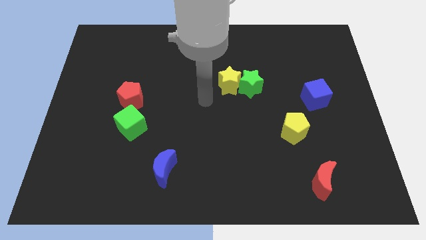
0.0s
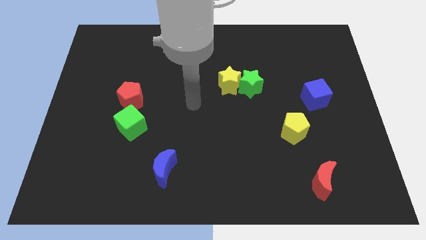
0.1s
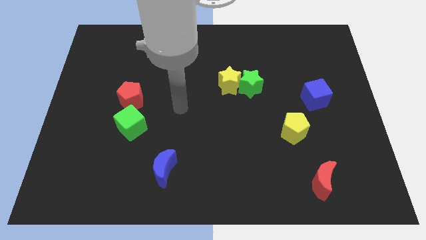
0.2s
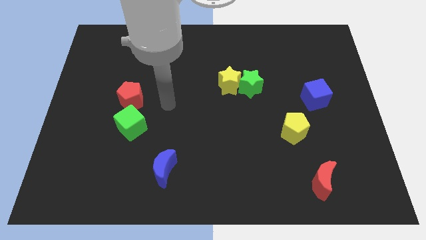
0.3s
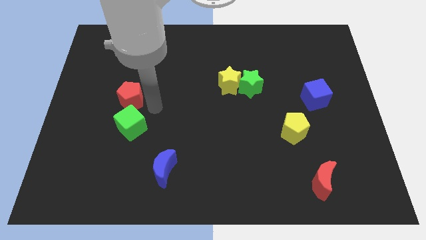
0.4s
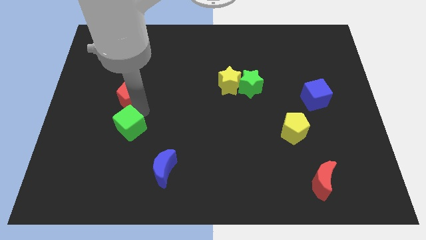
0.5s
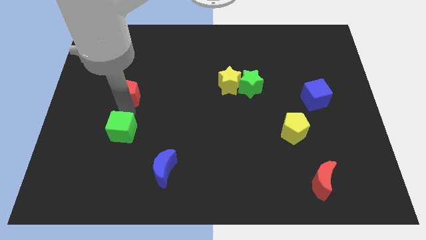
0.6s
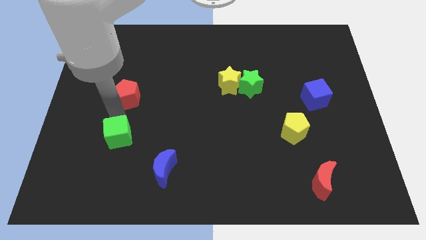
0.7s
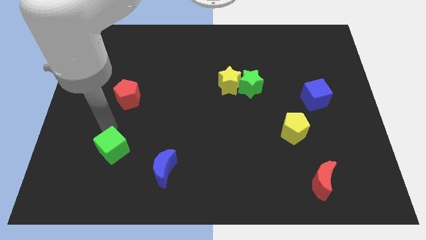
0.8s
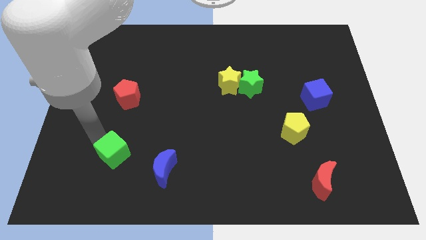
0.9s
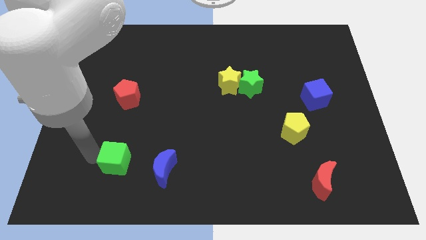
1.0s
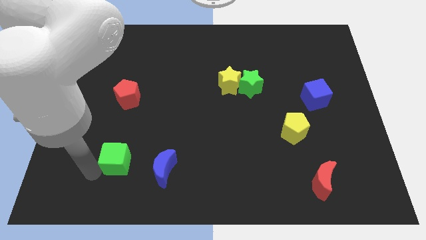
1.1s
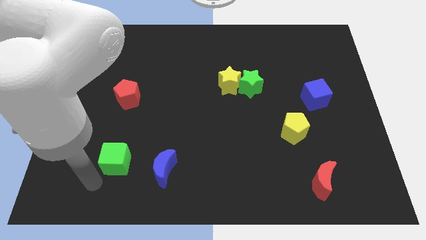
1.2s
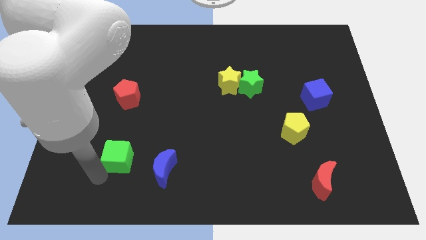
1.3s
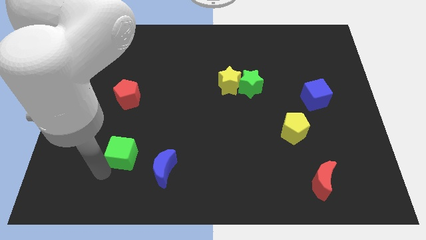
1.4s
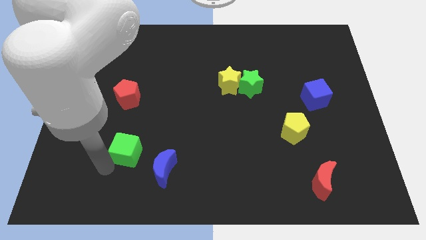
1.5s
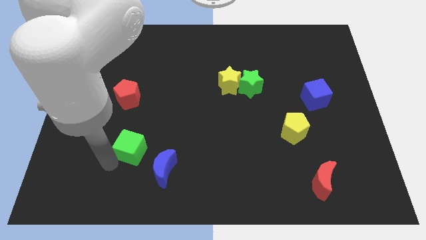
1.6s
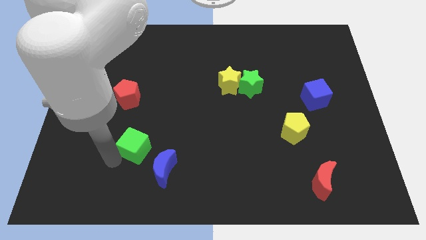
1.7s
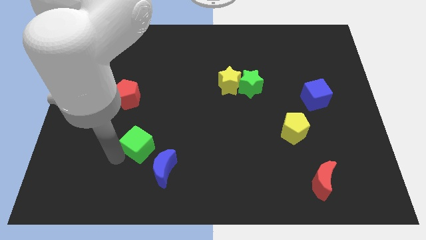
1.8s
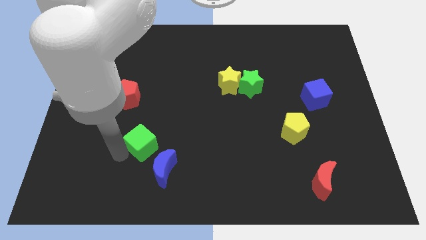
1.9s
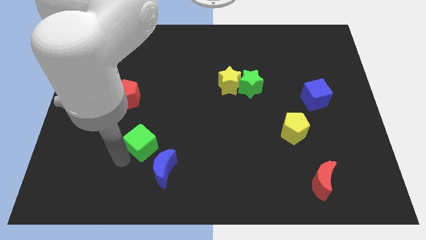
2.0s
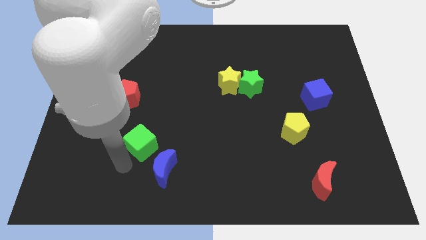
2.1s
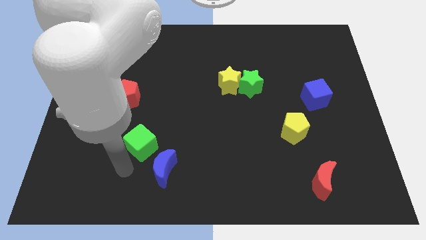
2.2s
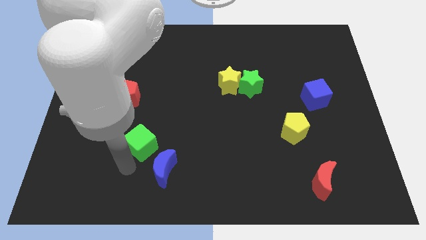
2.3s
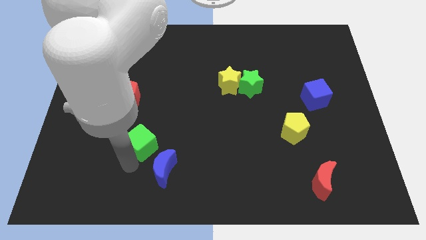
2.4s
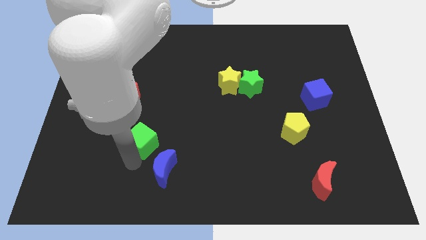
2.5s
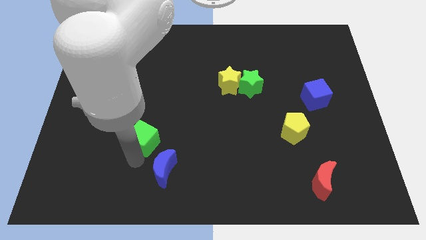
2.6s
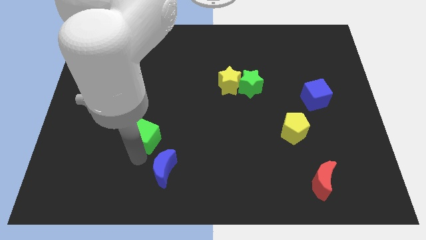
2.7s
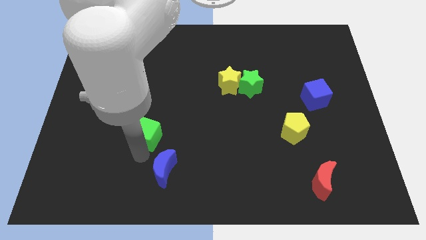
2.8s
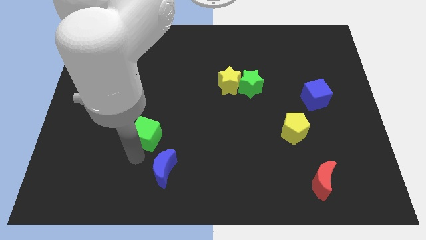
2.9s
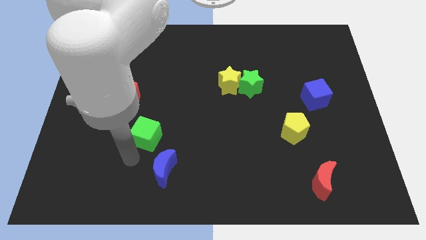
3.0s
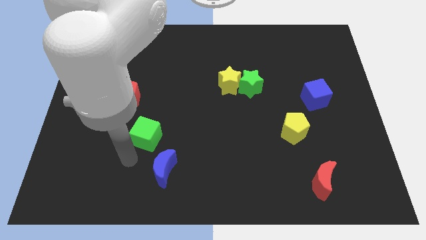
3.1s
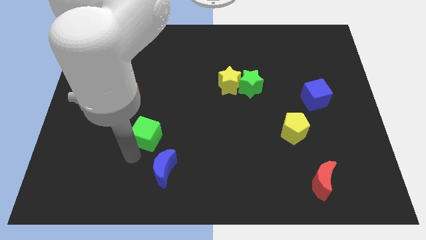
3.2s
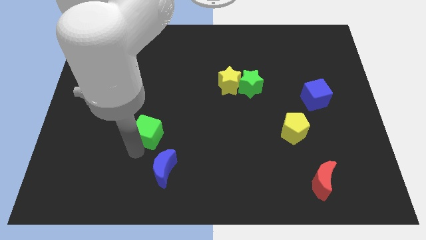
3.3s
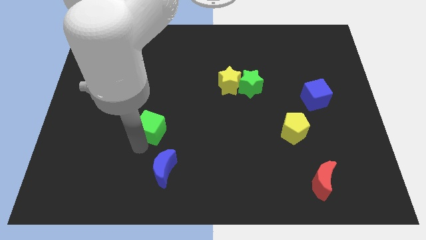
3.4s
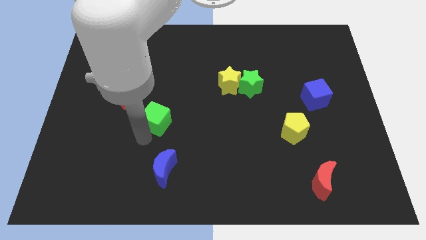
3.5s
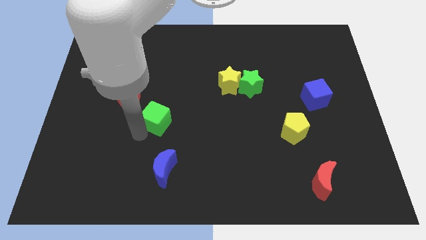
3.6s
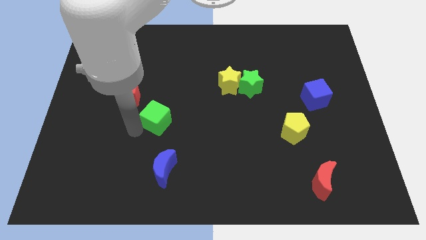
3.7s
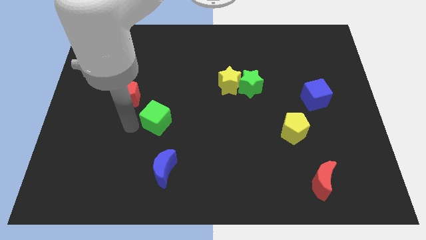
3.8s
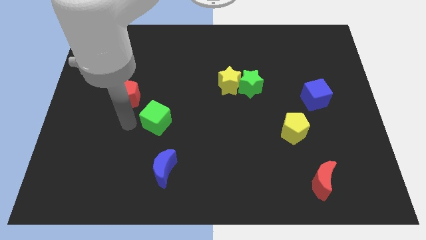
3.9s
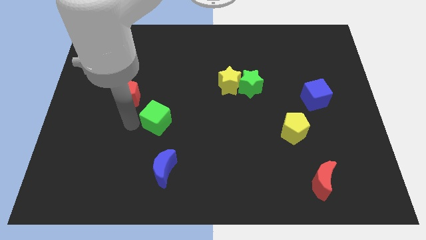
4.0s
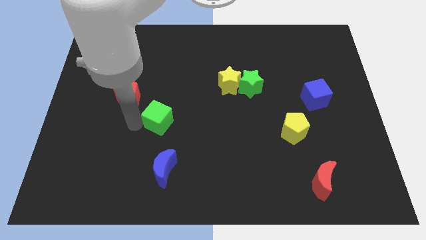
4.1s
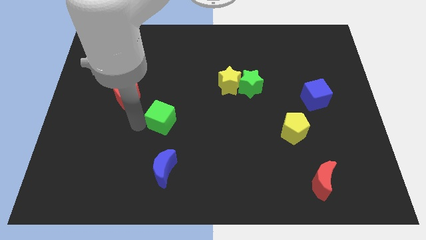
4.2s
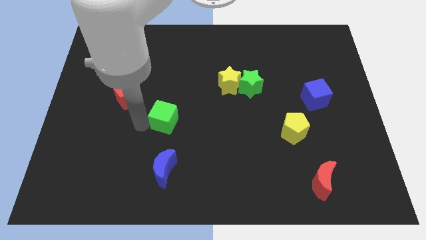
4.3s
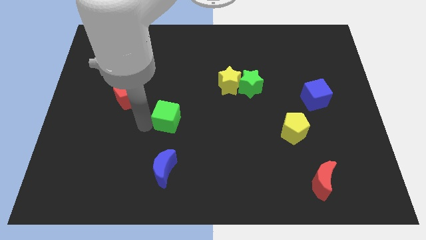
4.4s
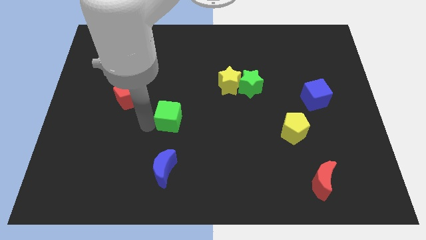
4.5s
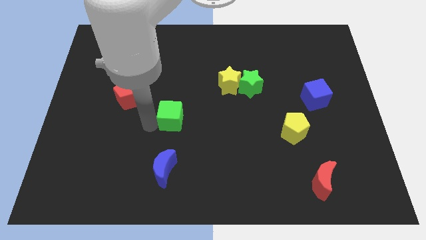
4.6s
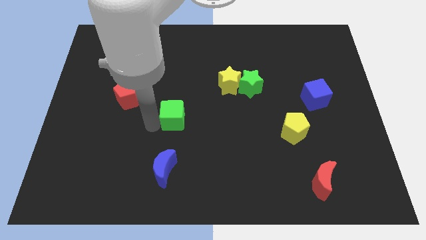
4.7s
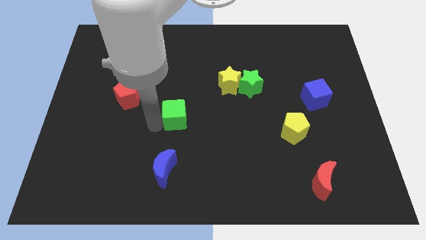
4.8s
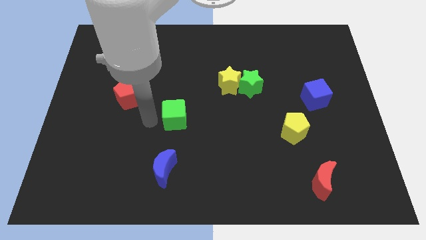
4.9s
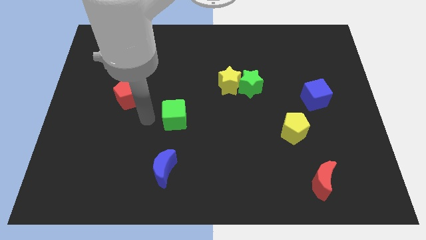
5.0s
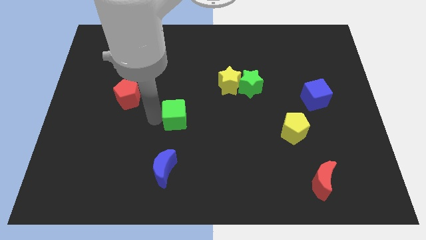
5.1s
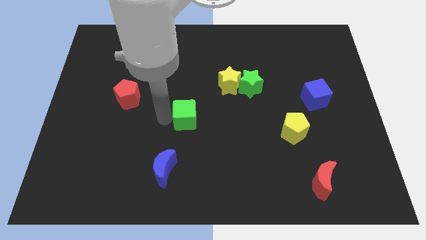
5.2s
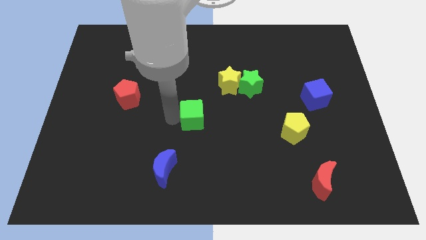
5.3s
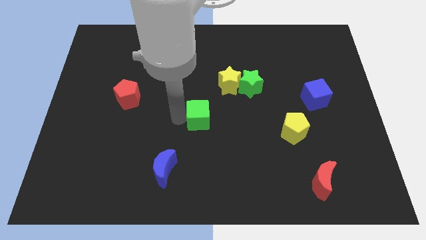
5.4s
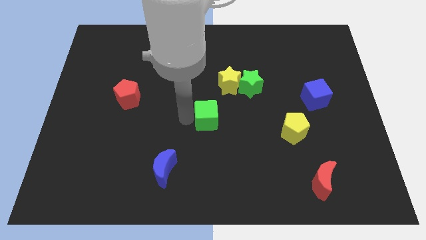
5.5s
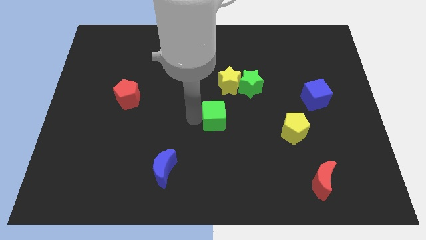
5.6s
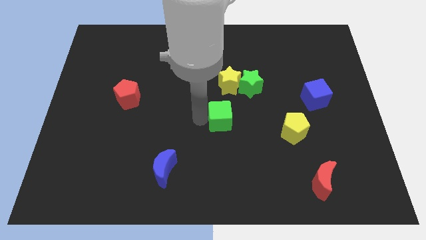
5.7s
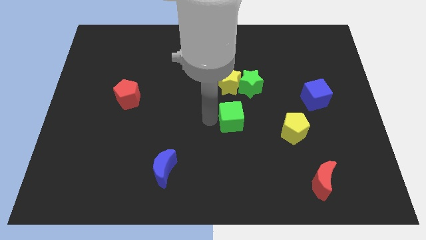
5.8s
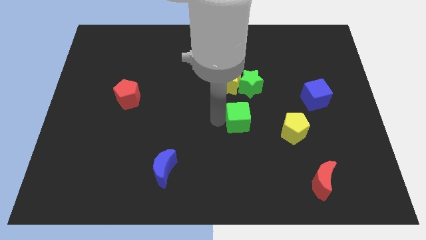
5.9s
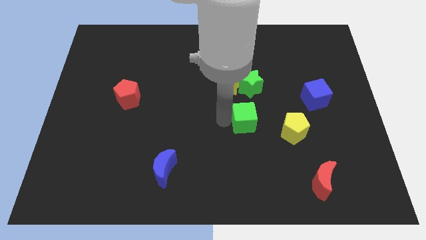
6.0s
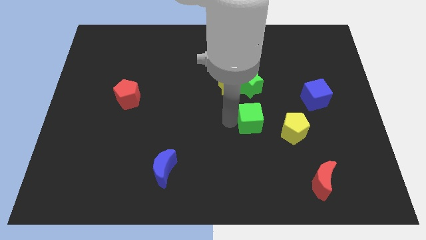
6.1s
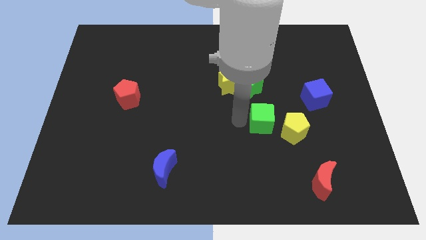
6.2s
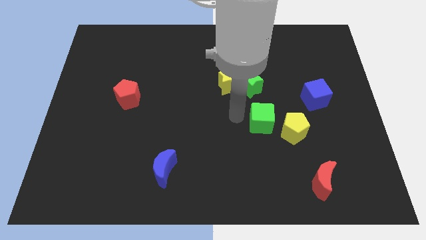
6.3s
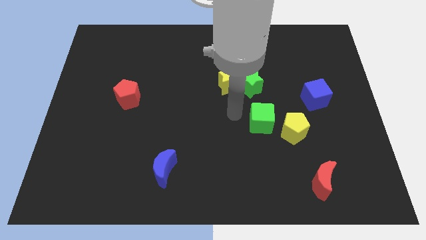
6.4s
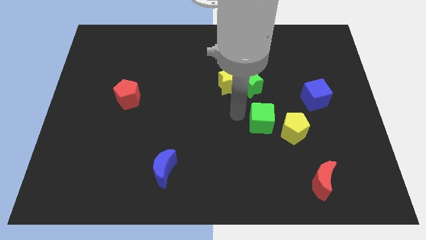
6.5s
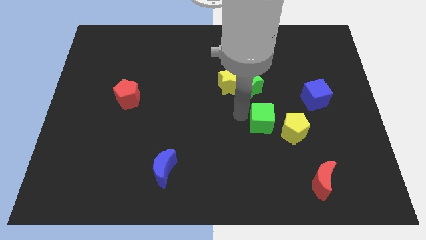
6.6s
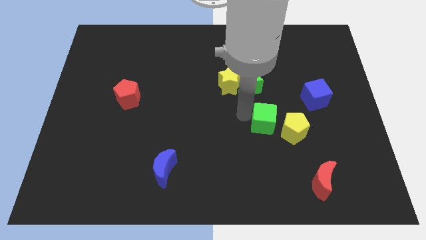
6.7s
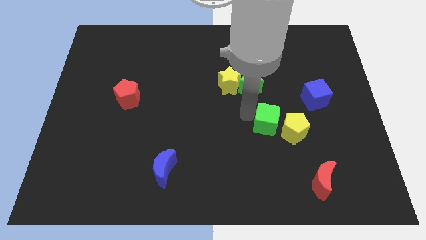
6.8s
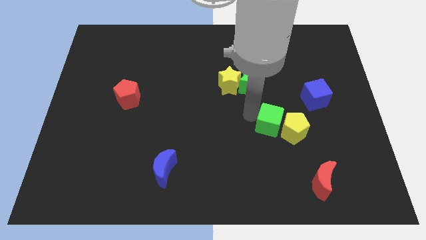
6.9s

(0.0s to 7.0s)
slide the green cube next to the yellow pentagon
